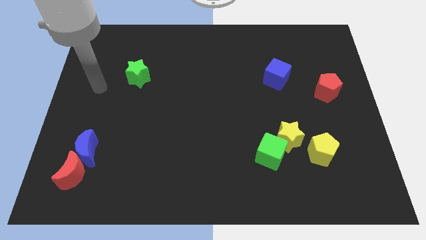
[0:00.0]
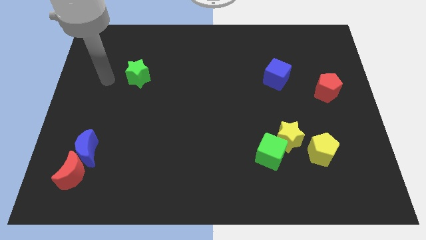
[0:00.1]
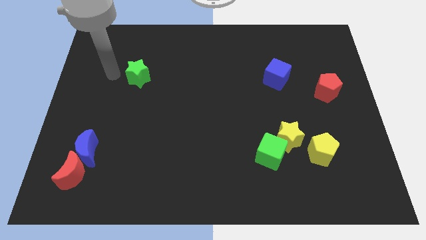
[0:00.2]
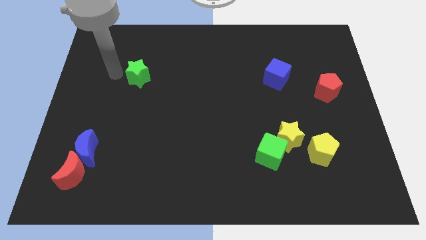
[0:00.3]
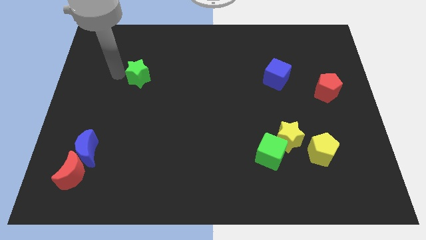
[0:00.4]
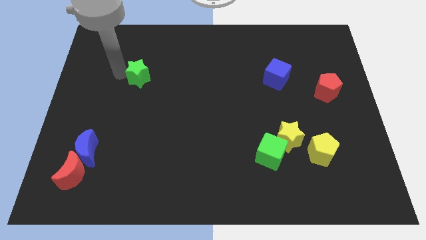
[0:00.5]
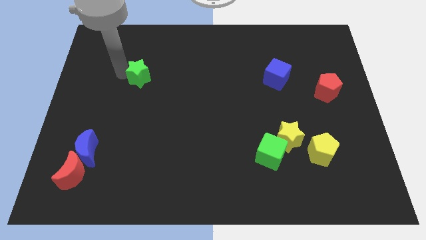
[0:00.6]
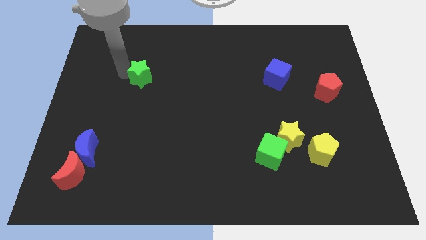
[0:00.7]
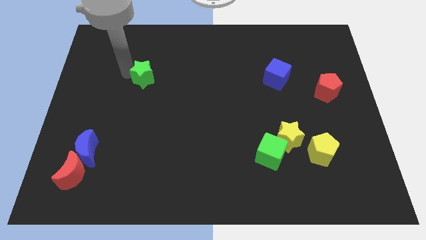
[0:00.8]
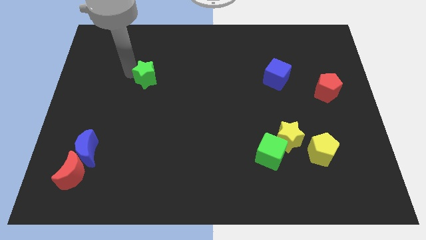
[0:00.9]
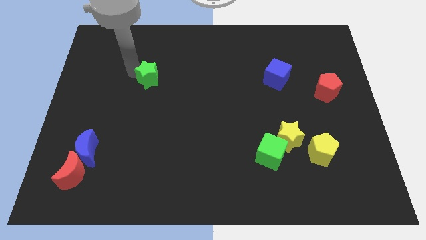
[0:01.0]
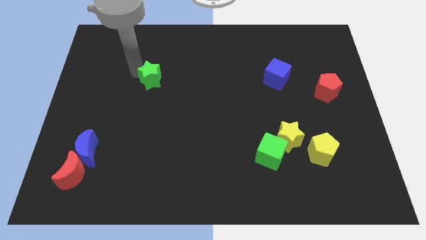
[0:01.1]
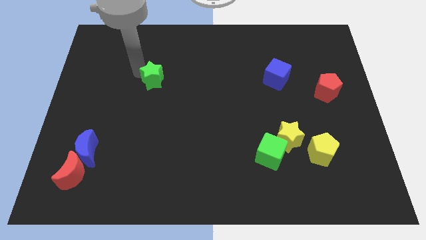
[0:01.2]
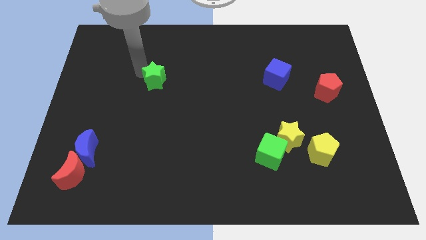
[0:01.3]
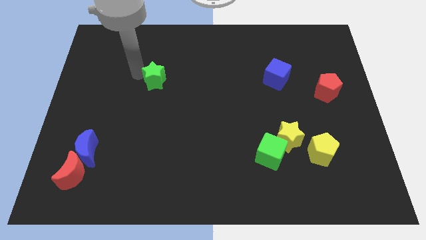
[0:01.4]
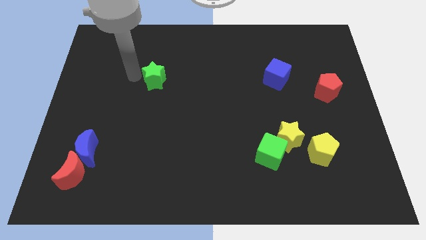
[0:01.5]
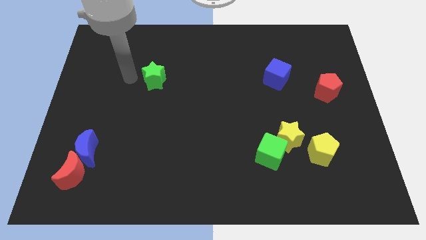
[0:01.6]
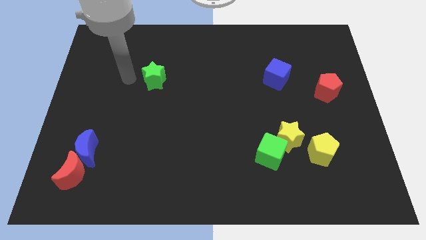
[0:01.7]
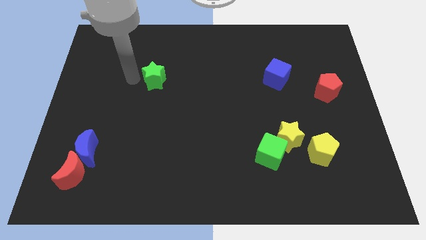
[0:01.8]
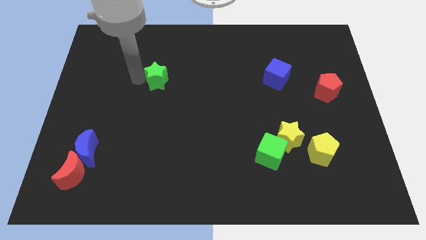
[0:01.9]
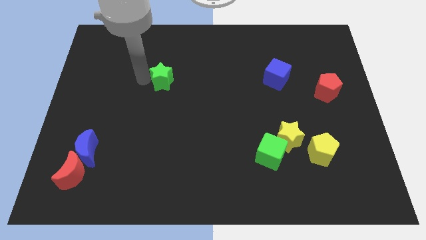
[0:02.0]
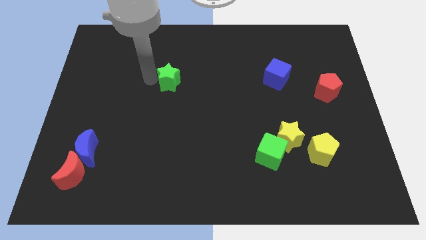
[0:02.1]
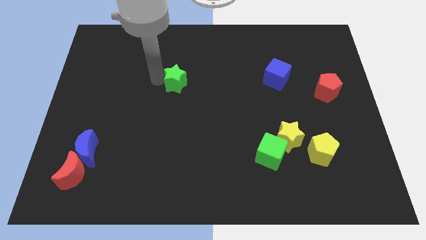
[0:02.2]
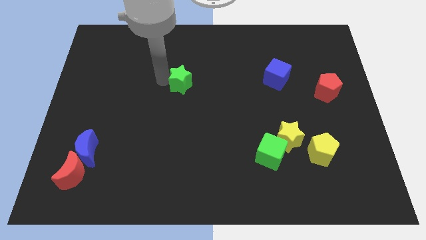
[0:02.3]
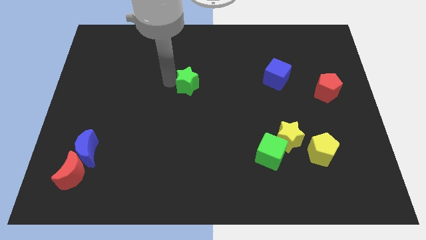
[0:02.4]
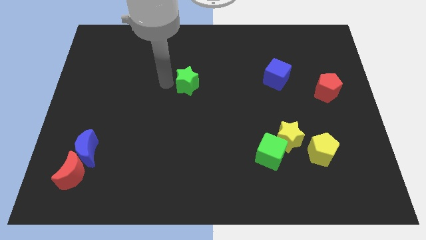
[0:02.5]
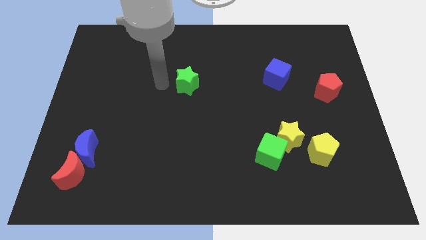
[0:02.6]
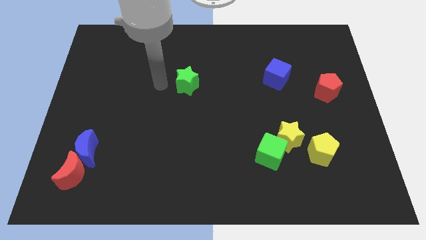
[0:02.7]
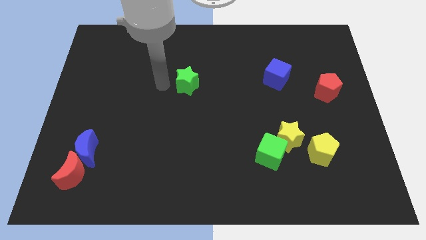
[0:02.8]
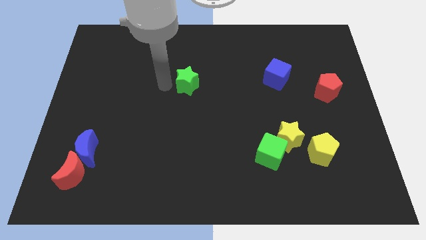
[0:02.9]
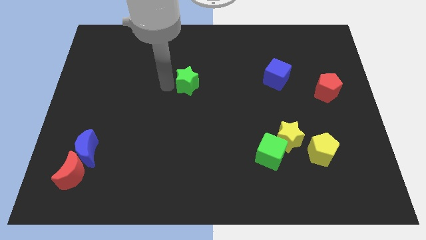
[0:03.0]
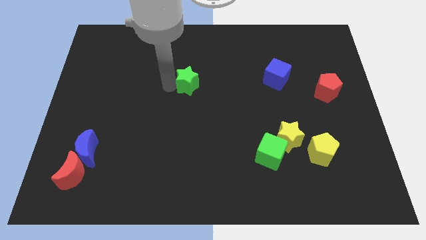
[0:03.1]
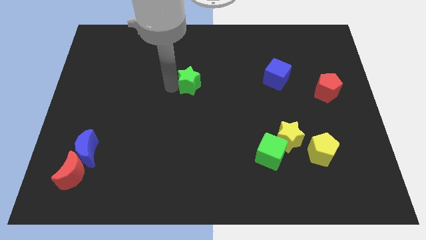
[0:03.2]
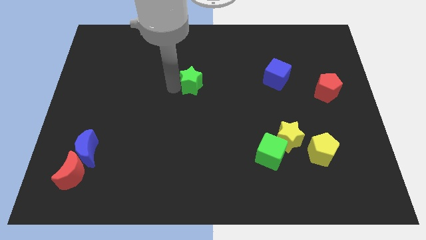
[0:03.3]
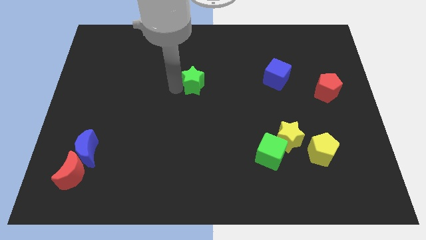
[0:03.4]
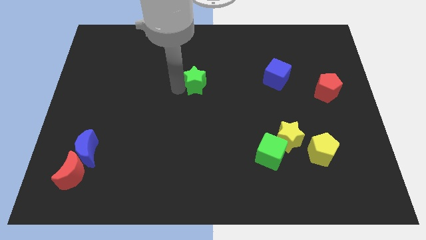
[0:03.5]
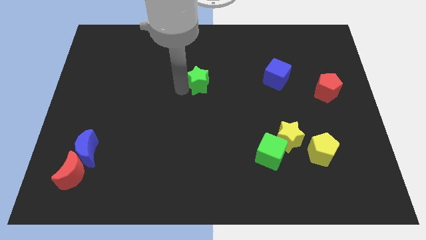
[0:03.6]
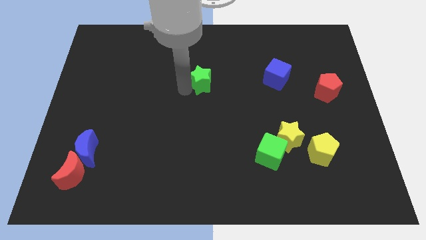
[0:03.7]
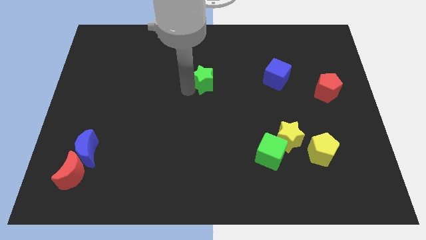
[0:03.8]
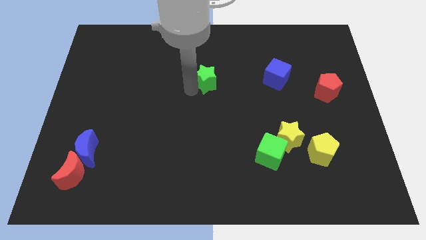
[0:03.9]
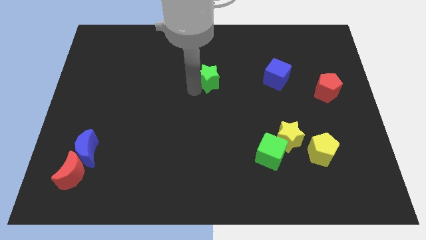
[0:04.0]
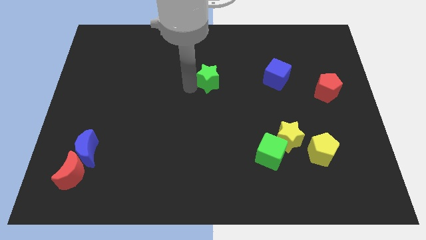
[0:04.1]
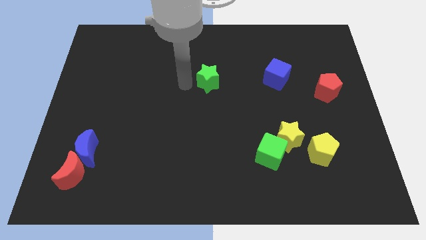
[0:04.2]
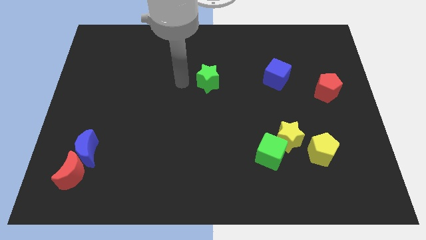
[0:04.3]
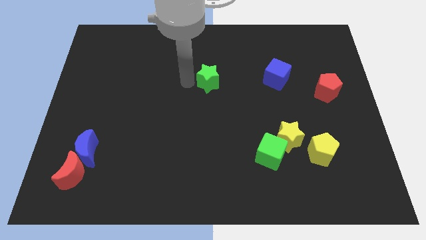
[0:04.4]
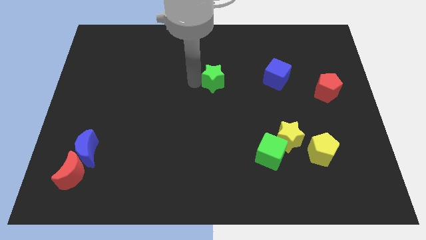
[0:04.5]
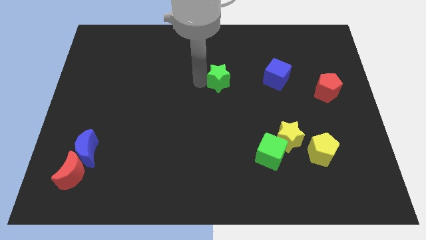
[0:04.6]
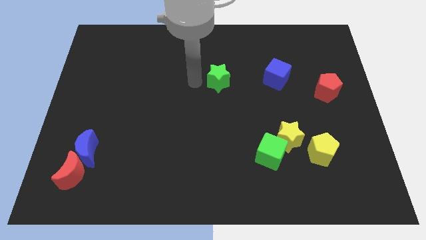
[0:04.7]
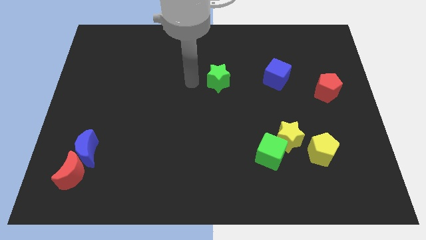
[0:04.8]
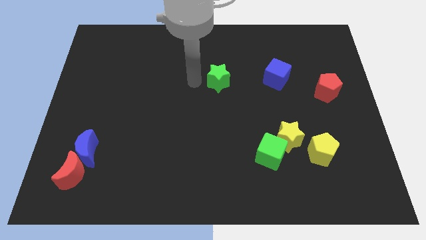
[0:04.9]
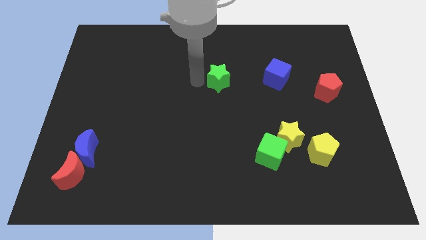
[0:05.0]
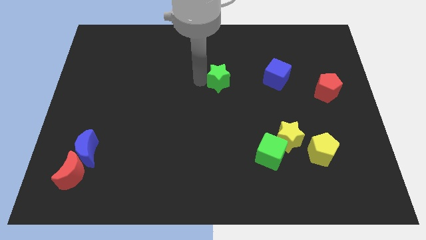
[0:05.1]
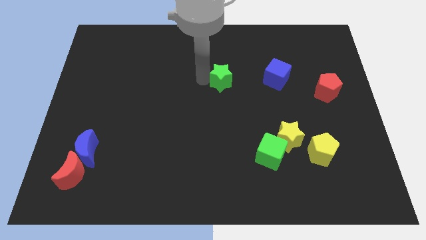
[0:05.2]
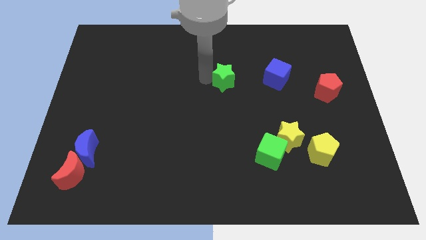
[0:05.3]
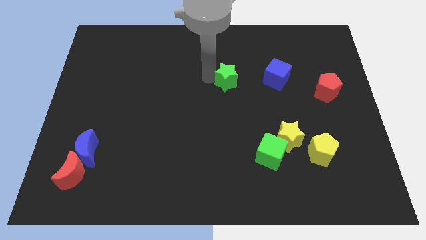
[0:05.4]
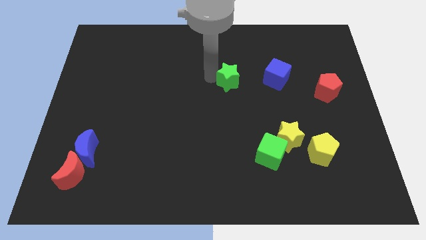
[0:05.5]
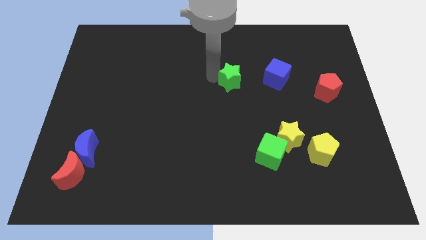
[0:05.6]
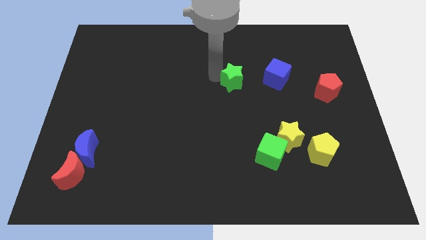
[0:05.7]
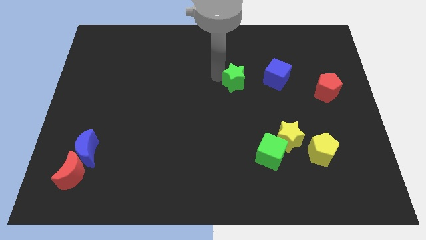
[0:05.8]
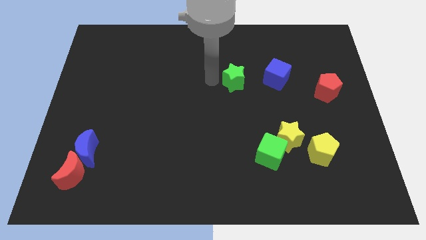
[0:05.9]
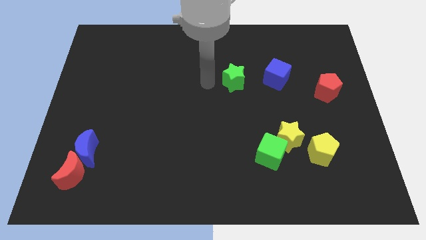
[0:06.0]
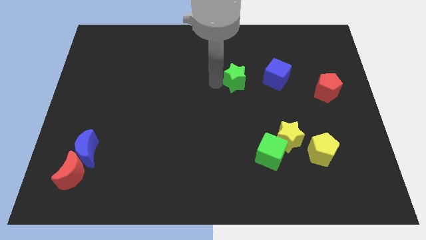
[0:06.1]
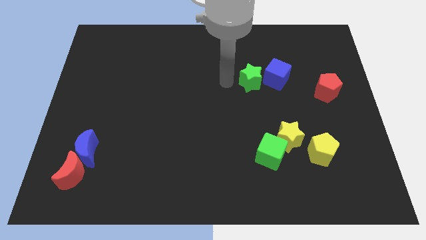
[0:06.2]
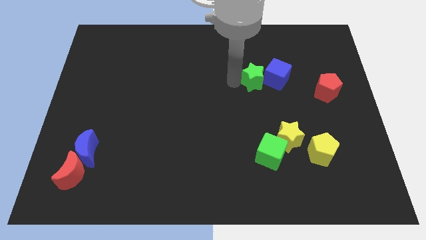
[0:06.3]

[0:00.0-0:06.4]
put the green star to the blue cube

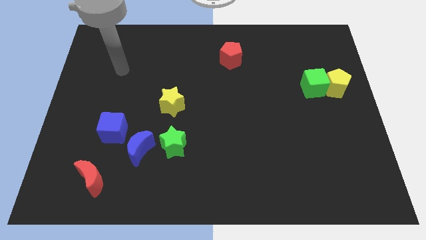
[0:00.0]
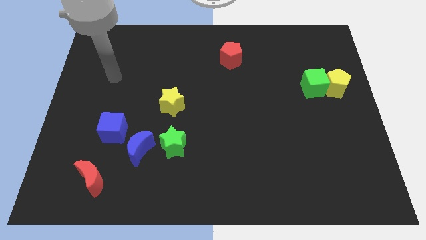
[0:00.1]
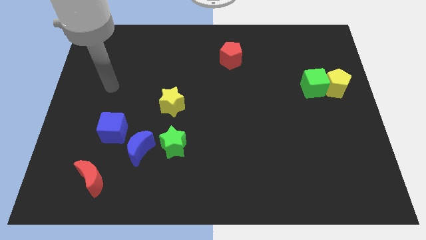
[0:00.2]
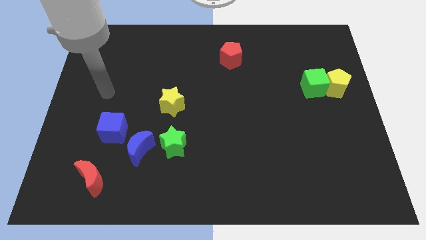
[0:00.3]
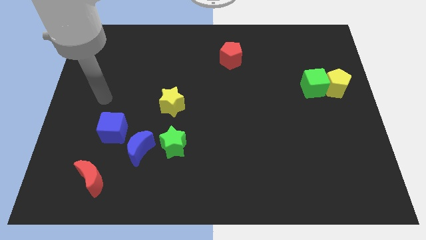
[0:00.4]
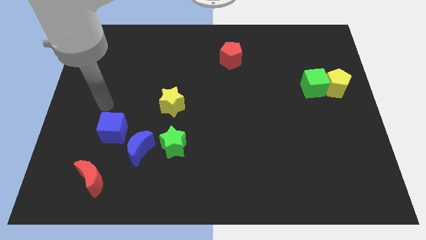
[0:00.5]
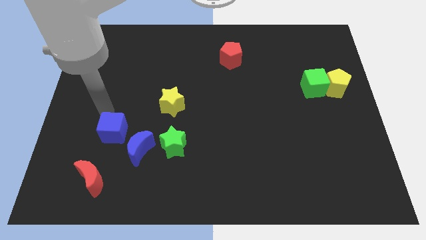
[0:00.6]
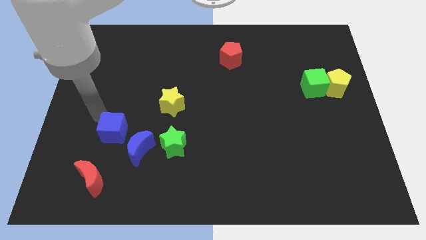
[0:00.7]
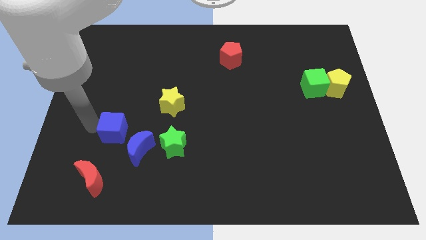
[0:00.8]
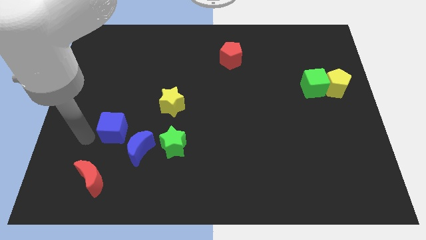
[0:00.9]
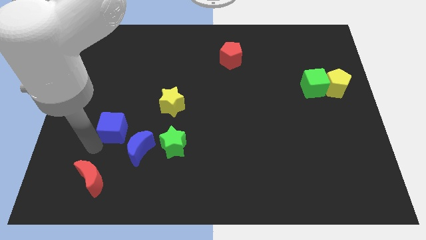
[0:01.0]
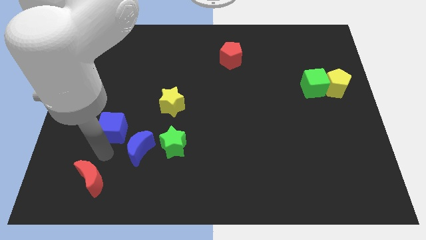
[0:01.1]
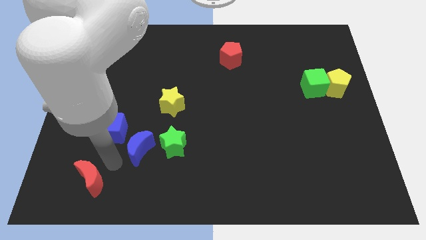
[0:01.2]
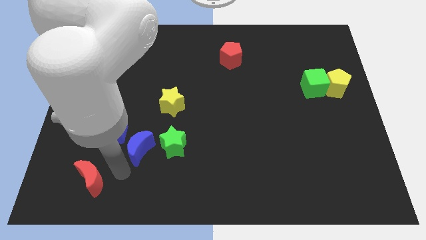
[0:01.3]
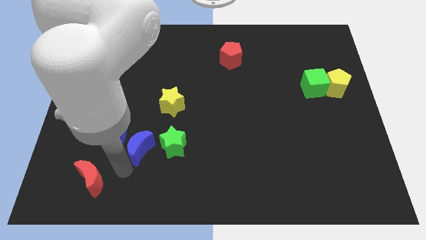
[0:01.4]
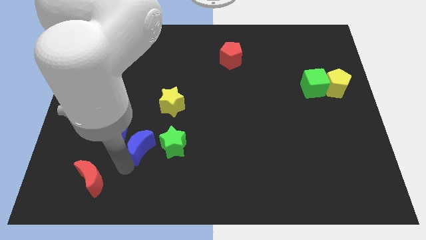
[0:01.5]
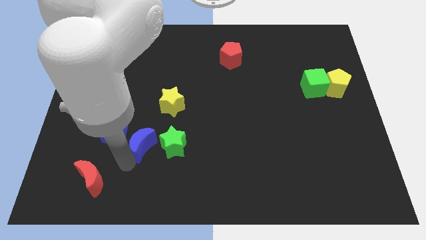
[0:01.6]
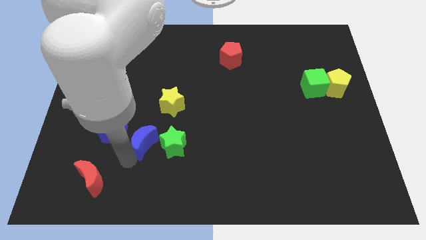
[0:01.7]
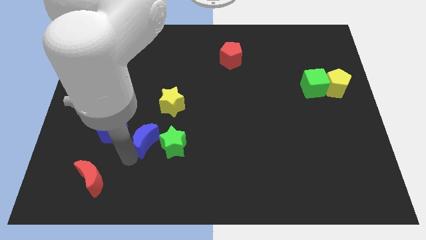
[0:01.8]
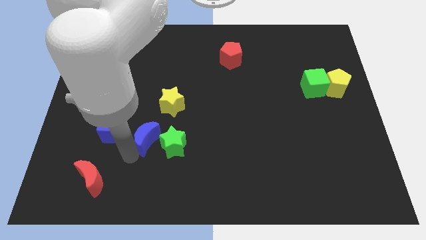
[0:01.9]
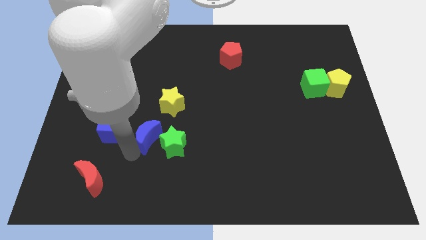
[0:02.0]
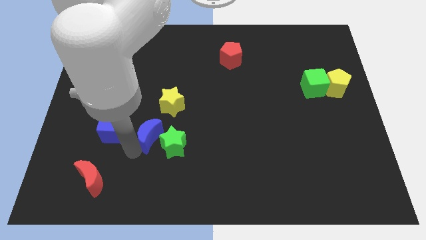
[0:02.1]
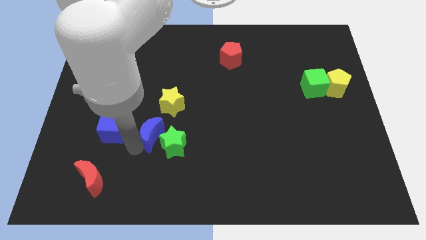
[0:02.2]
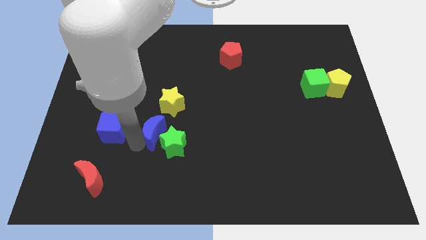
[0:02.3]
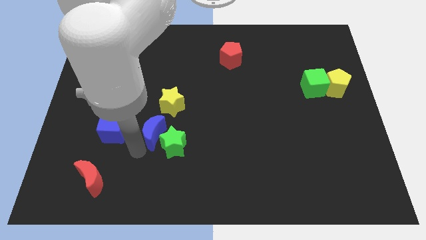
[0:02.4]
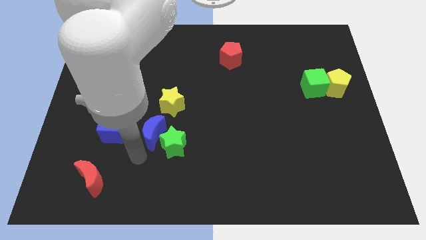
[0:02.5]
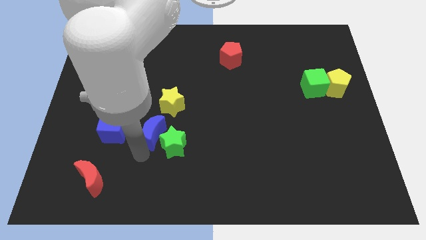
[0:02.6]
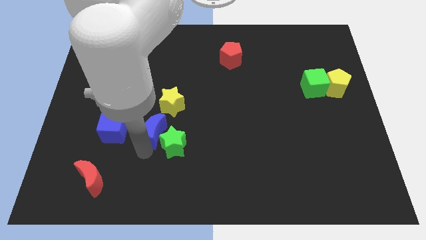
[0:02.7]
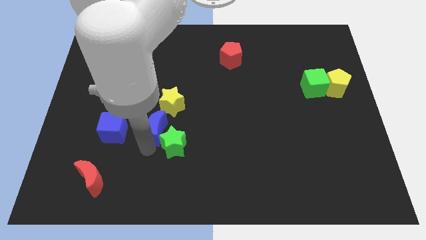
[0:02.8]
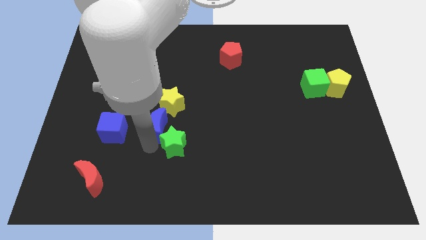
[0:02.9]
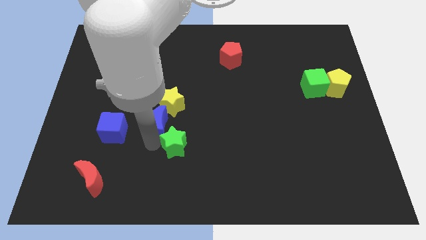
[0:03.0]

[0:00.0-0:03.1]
push the blue moon next to the yellow star
